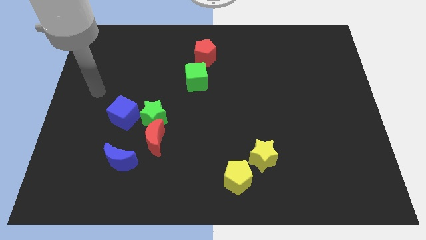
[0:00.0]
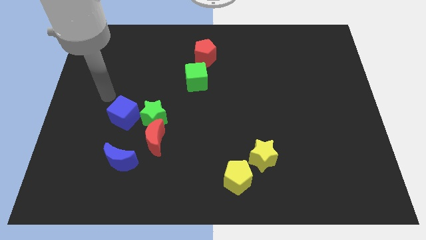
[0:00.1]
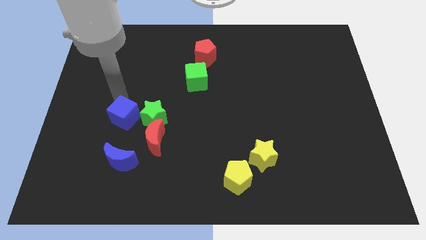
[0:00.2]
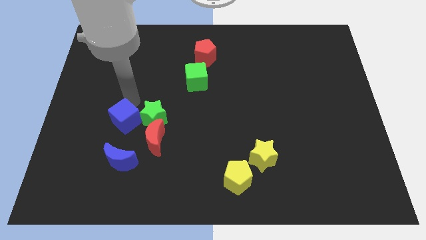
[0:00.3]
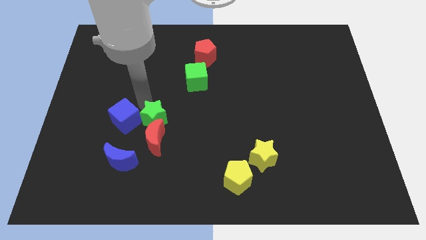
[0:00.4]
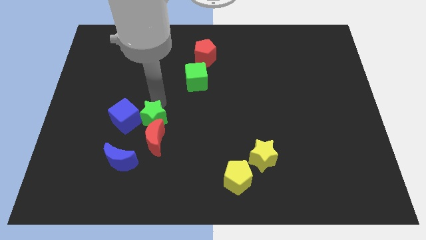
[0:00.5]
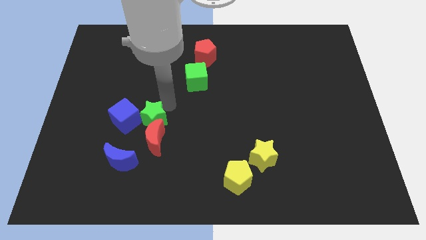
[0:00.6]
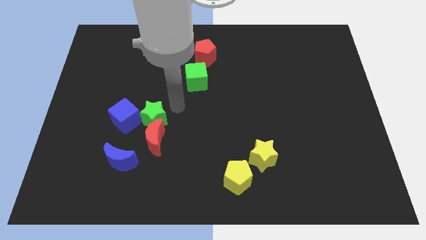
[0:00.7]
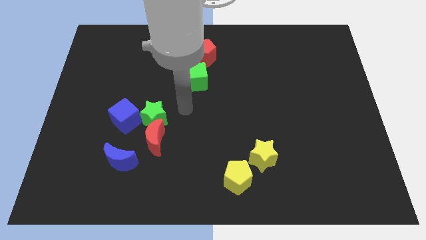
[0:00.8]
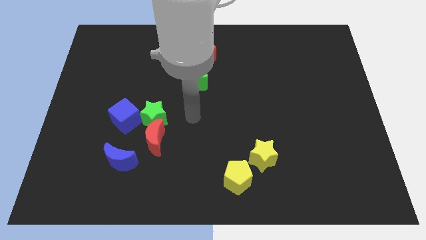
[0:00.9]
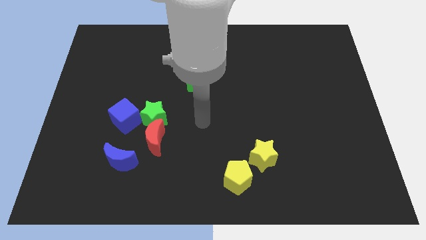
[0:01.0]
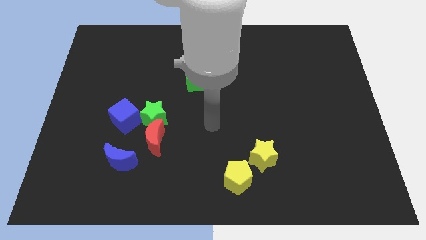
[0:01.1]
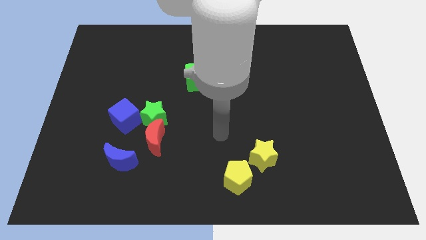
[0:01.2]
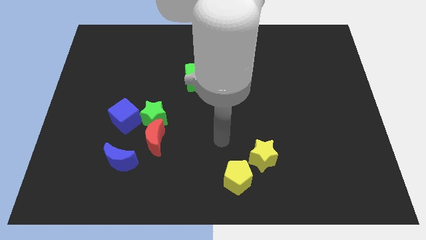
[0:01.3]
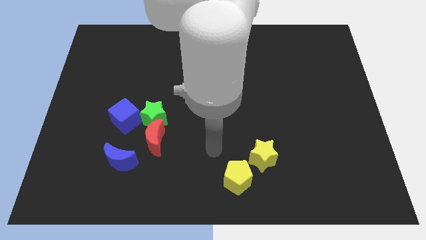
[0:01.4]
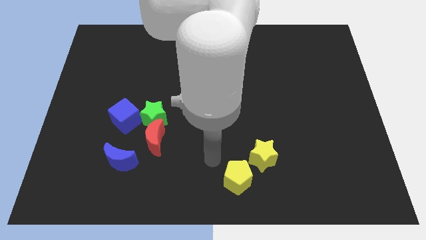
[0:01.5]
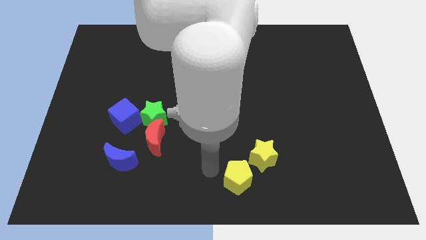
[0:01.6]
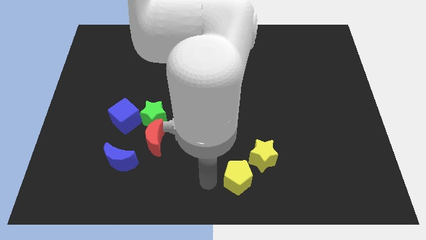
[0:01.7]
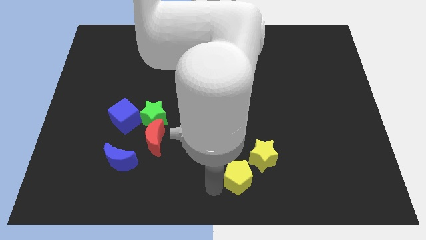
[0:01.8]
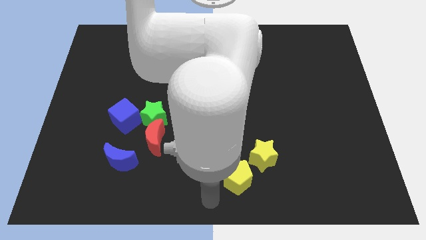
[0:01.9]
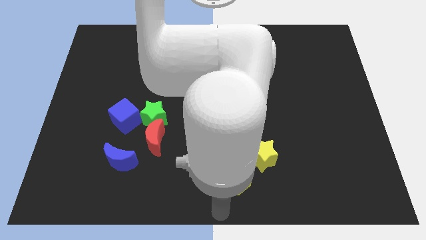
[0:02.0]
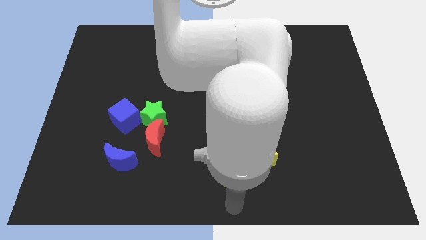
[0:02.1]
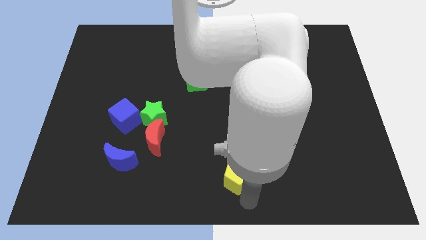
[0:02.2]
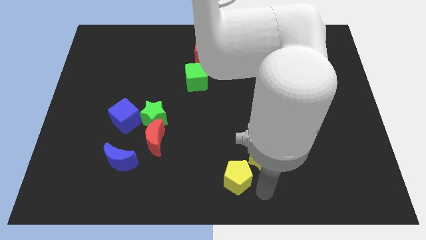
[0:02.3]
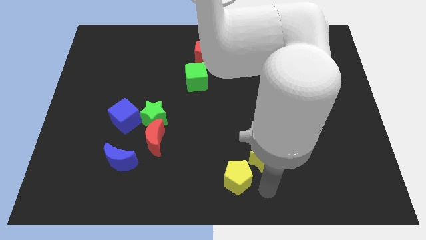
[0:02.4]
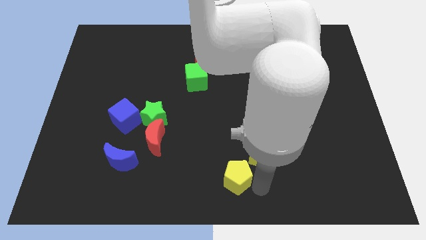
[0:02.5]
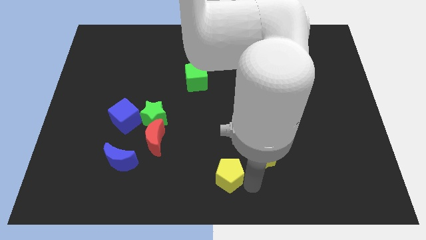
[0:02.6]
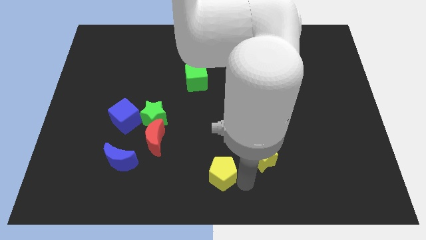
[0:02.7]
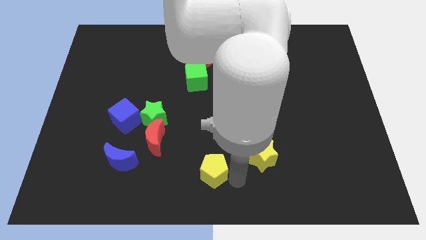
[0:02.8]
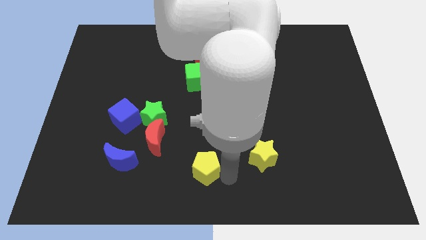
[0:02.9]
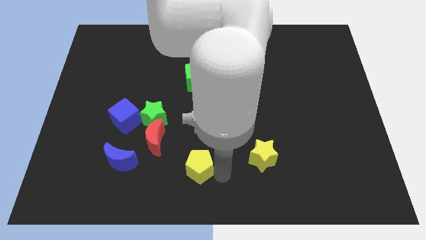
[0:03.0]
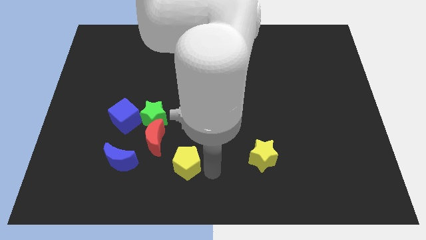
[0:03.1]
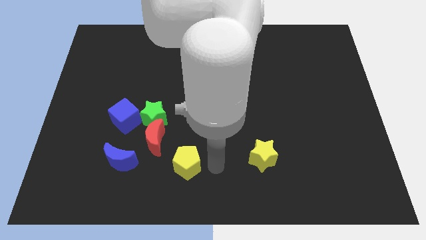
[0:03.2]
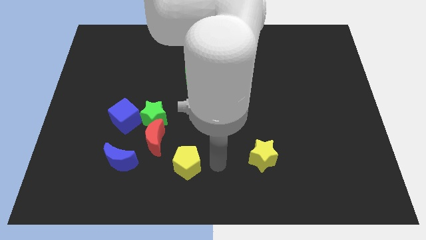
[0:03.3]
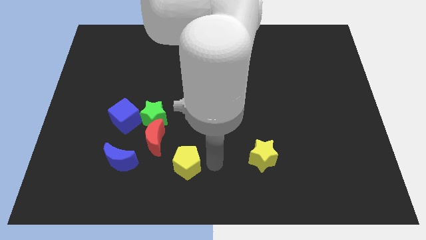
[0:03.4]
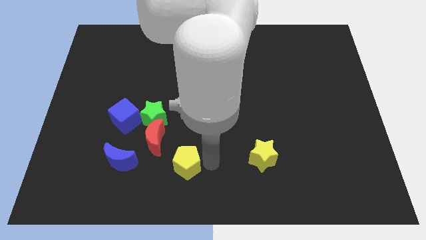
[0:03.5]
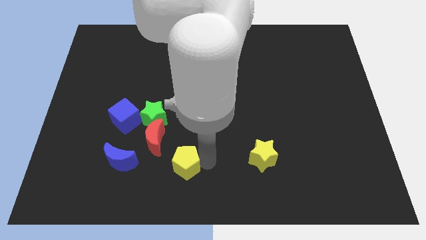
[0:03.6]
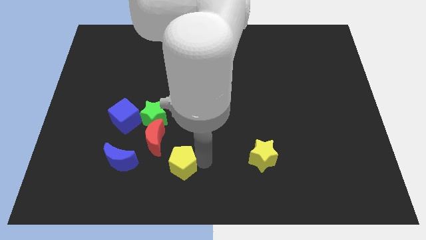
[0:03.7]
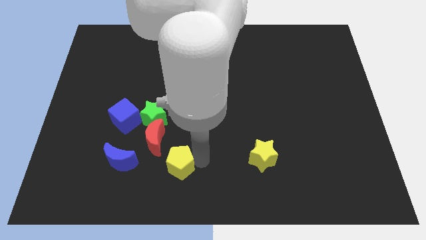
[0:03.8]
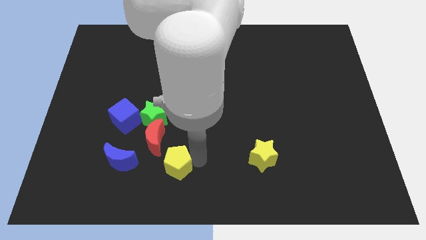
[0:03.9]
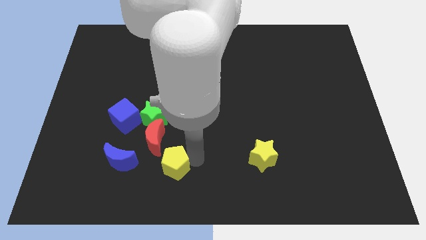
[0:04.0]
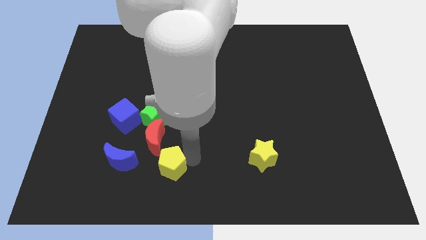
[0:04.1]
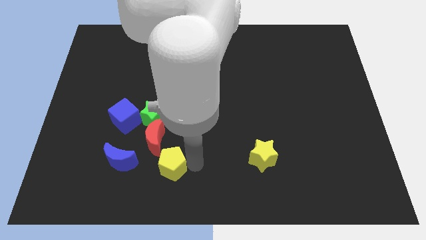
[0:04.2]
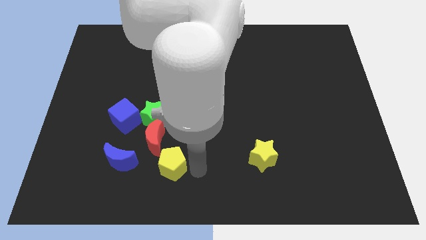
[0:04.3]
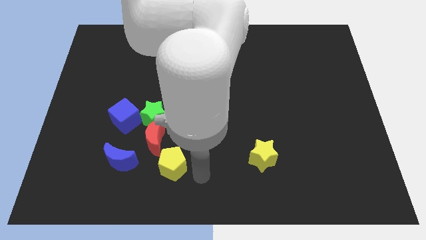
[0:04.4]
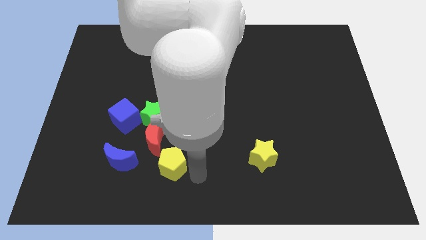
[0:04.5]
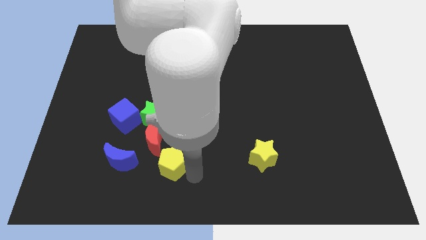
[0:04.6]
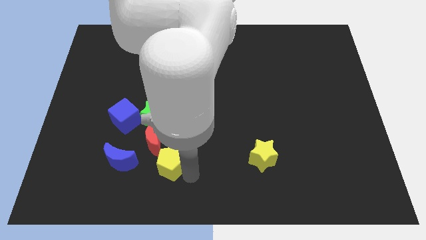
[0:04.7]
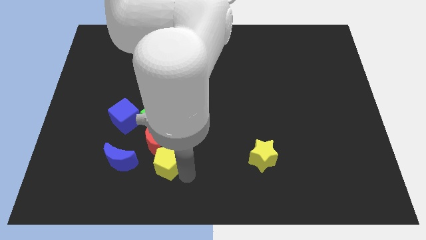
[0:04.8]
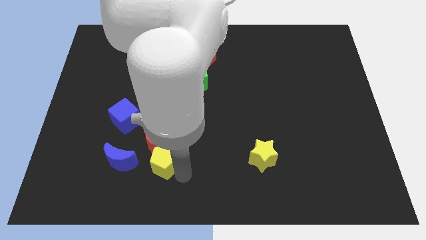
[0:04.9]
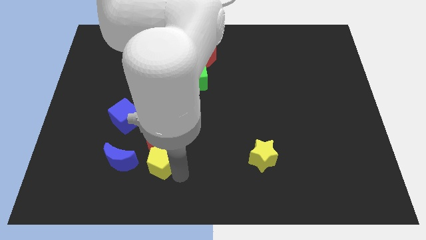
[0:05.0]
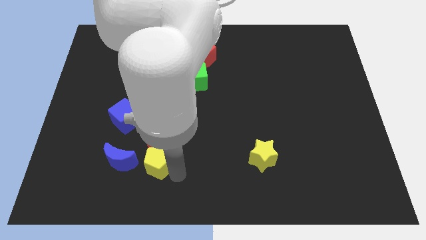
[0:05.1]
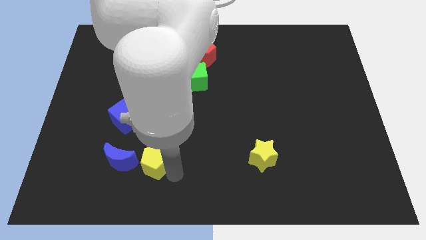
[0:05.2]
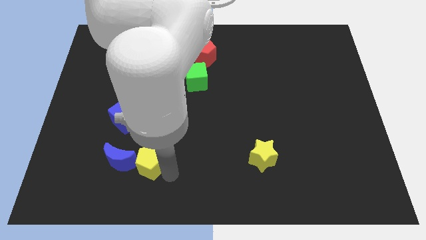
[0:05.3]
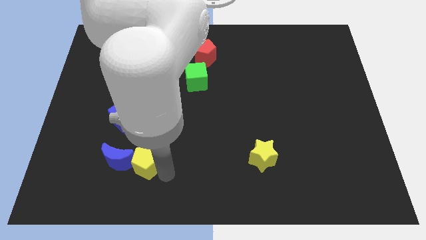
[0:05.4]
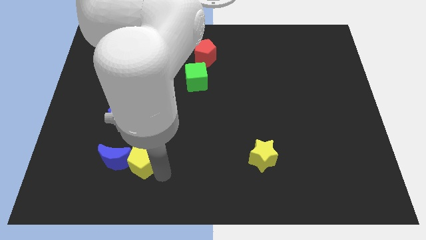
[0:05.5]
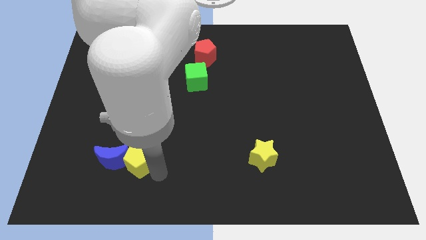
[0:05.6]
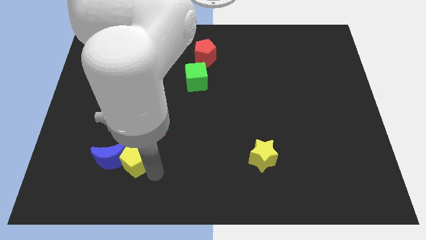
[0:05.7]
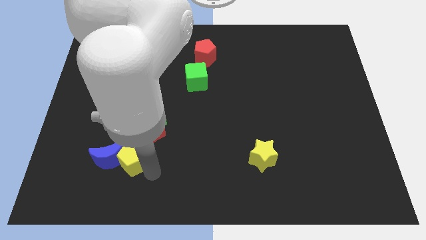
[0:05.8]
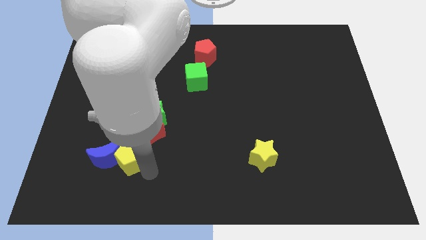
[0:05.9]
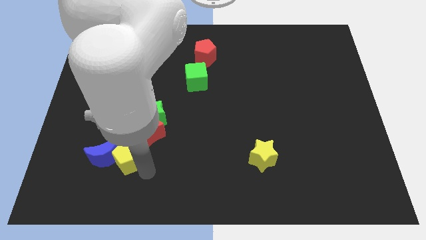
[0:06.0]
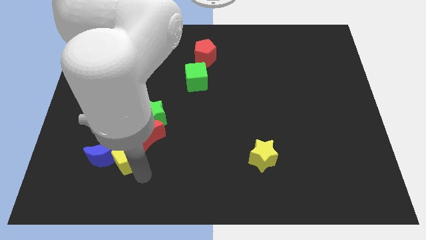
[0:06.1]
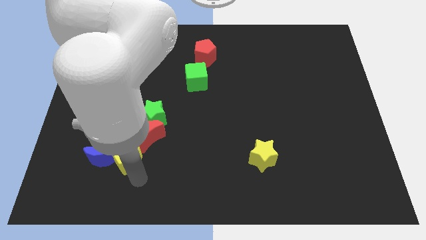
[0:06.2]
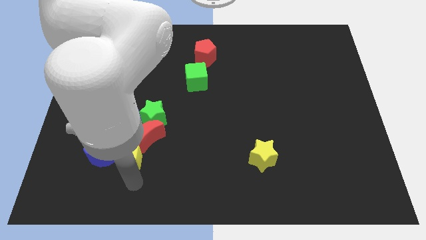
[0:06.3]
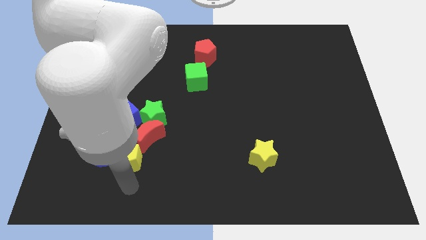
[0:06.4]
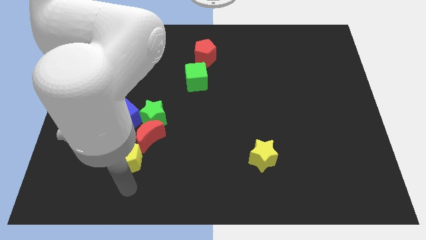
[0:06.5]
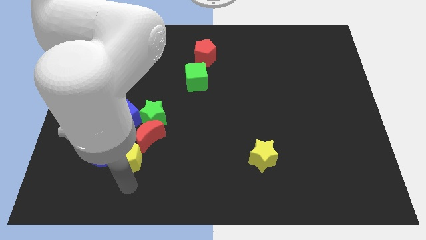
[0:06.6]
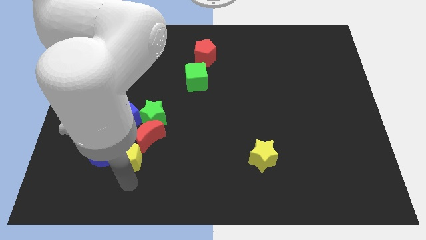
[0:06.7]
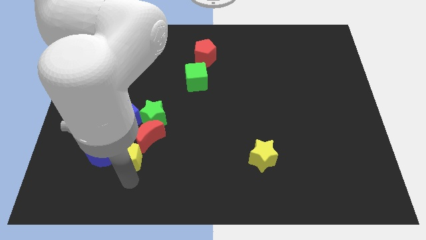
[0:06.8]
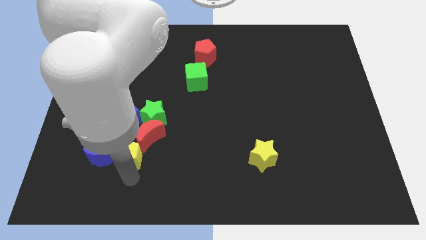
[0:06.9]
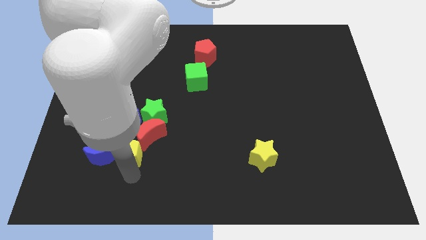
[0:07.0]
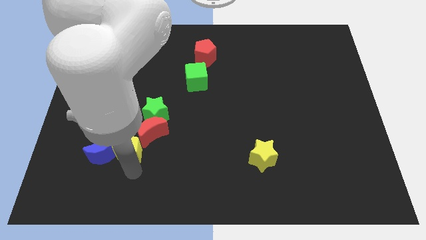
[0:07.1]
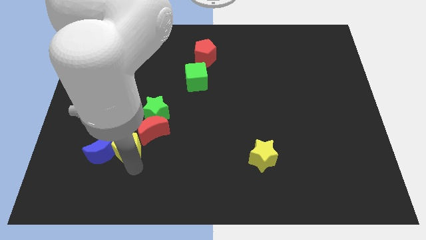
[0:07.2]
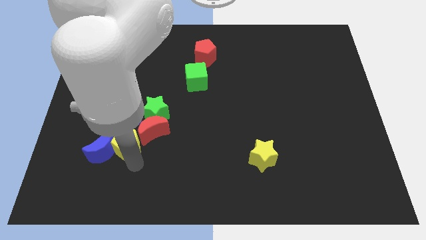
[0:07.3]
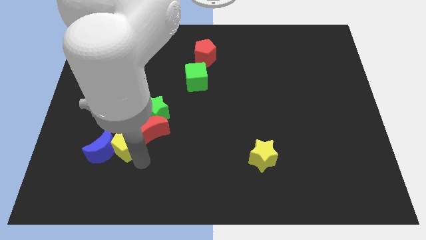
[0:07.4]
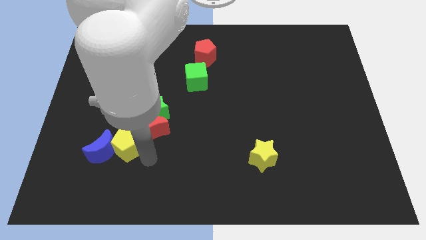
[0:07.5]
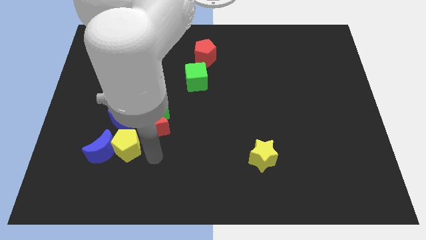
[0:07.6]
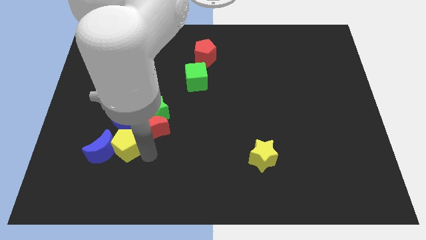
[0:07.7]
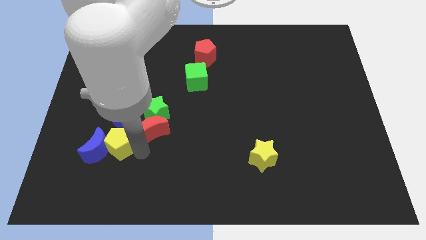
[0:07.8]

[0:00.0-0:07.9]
slide the yellow pentagon diagonally down and to the left of the blue cube

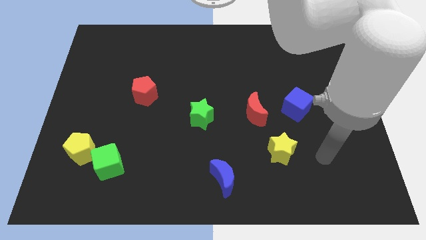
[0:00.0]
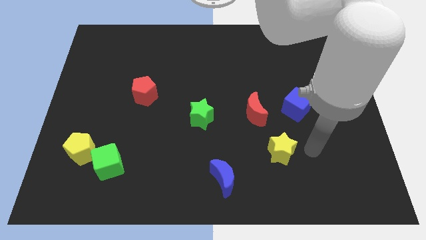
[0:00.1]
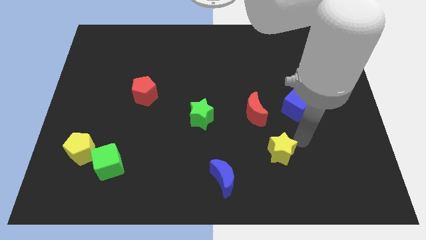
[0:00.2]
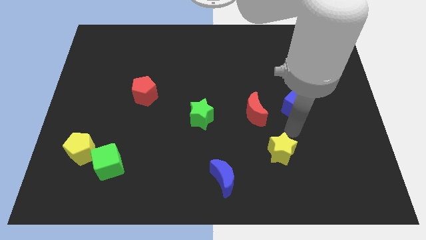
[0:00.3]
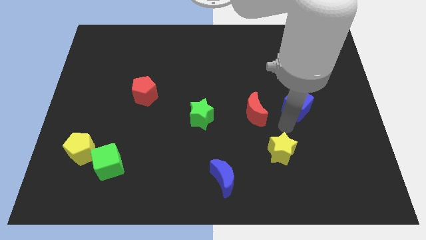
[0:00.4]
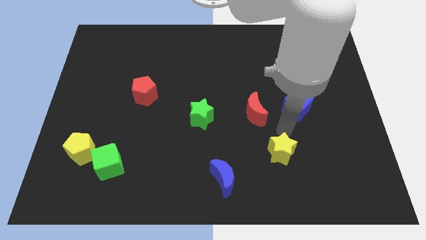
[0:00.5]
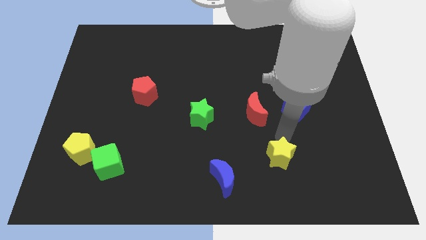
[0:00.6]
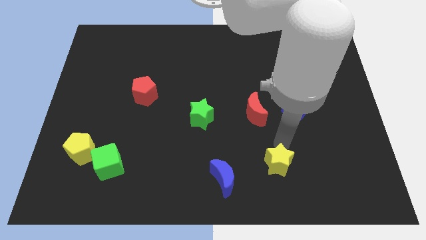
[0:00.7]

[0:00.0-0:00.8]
move the yellow star just right of the blue moon
